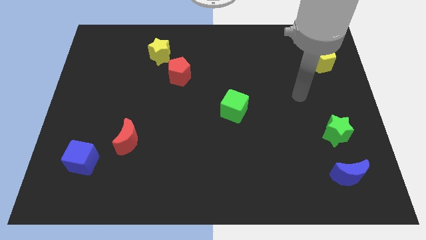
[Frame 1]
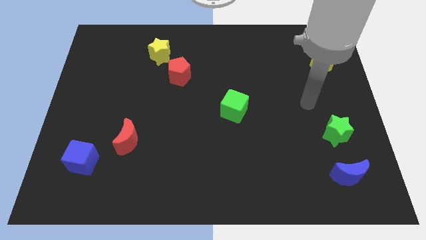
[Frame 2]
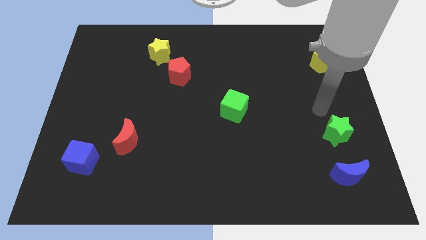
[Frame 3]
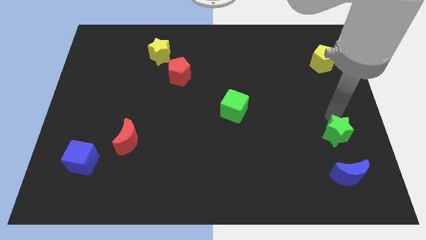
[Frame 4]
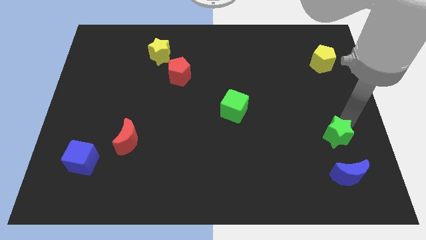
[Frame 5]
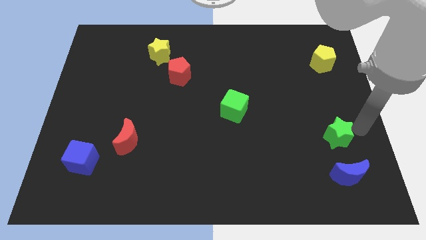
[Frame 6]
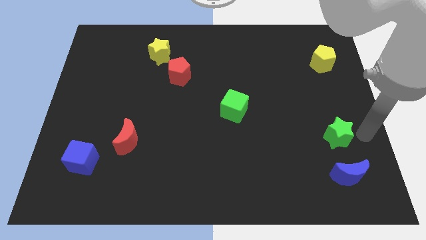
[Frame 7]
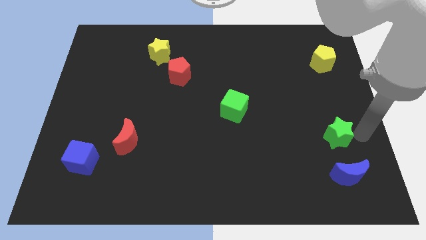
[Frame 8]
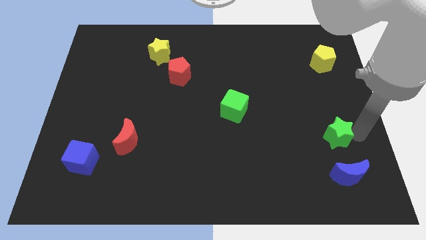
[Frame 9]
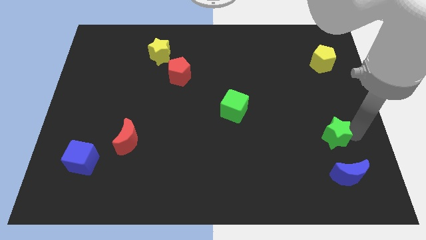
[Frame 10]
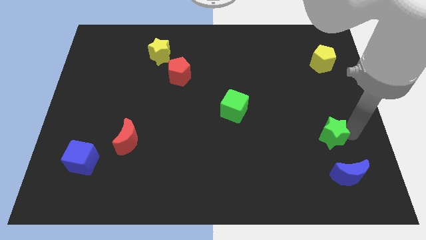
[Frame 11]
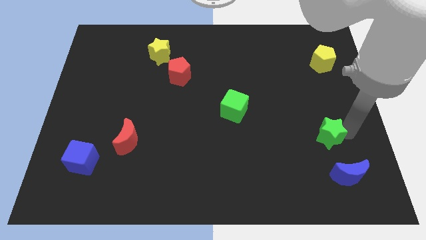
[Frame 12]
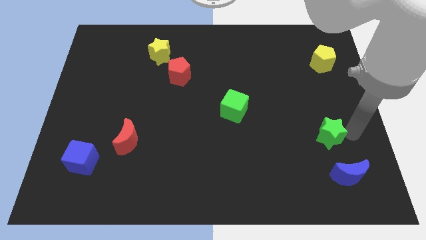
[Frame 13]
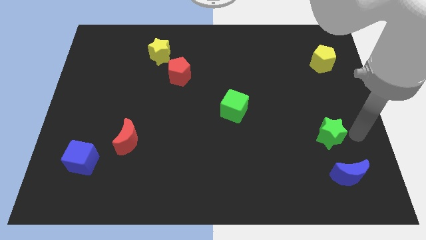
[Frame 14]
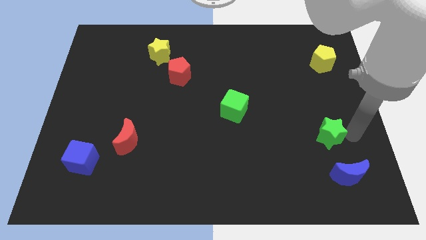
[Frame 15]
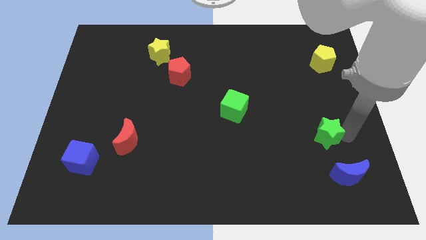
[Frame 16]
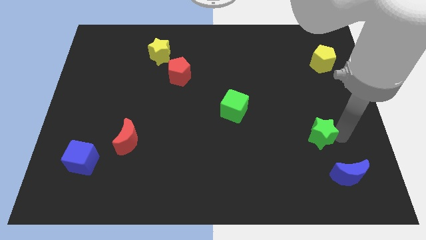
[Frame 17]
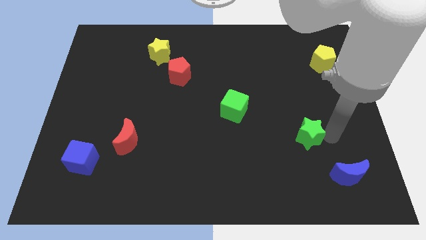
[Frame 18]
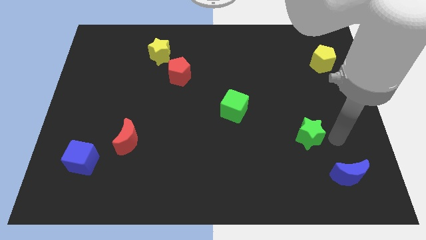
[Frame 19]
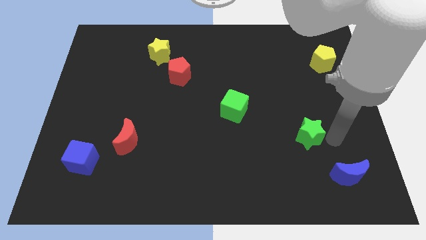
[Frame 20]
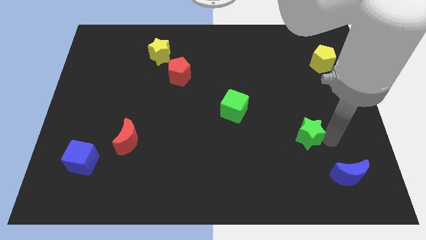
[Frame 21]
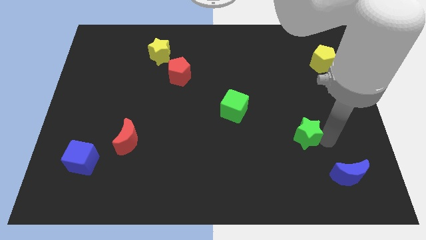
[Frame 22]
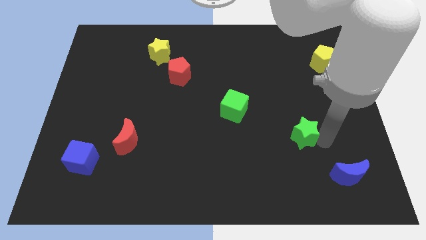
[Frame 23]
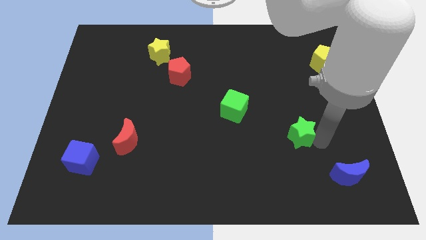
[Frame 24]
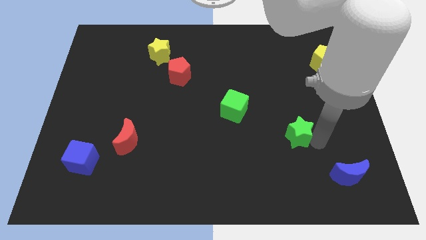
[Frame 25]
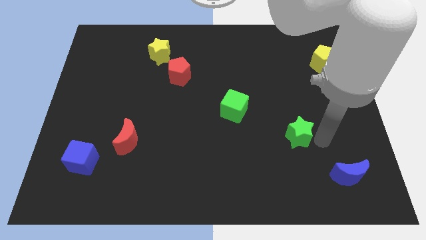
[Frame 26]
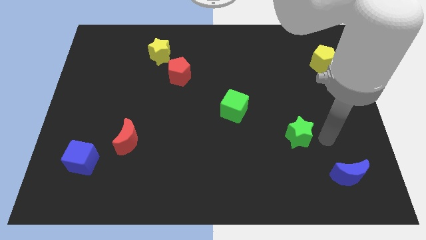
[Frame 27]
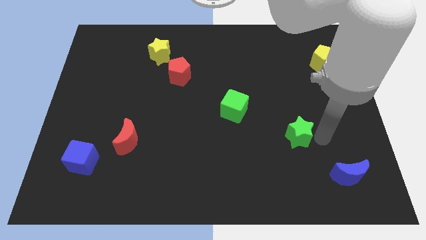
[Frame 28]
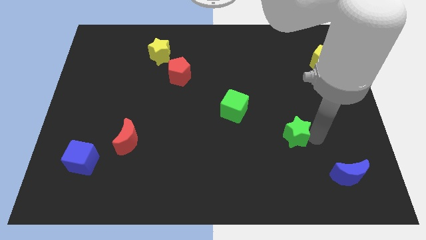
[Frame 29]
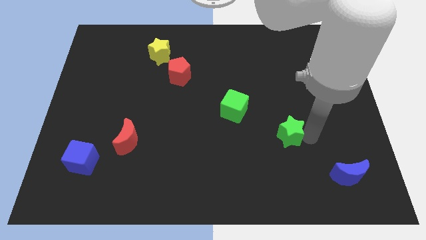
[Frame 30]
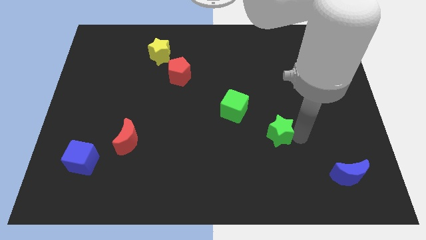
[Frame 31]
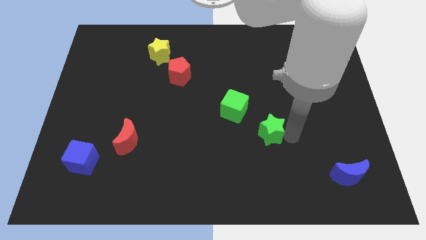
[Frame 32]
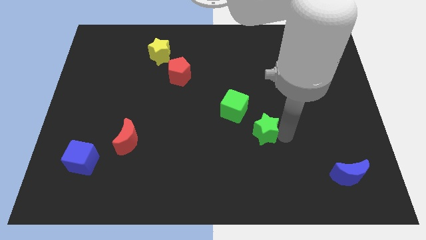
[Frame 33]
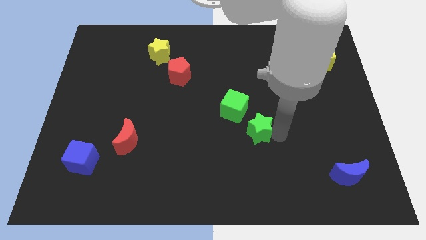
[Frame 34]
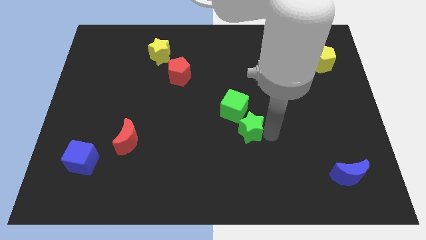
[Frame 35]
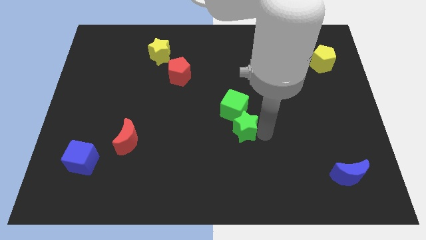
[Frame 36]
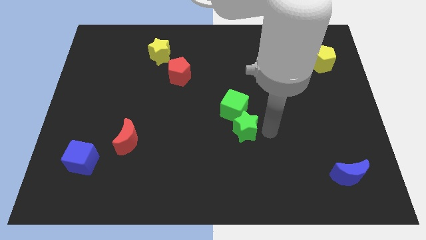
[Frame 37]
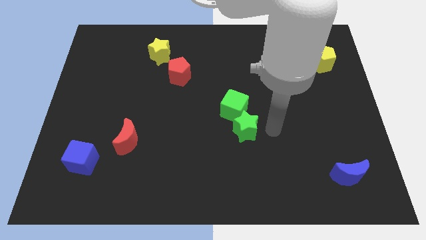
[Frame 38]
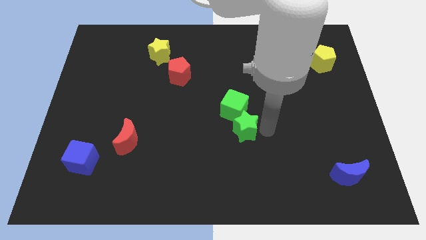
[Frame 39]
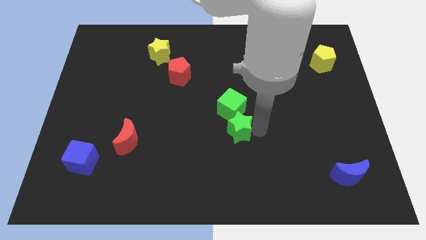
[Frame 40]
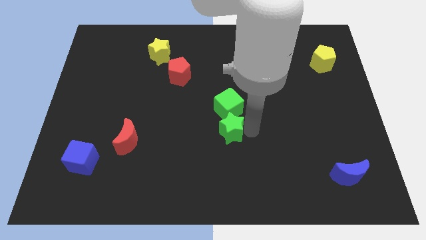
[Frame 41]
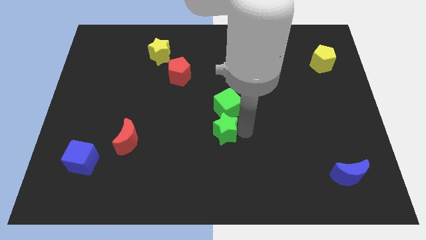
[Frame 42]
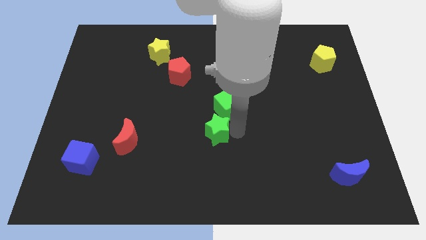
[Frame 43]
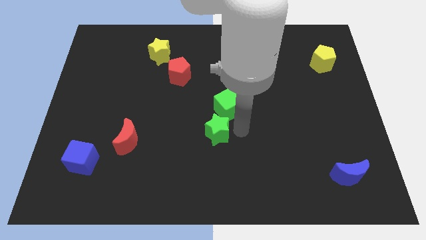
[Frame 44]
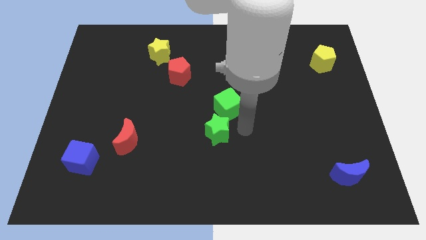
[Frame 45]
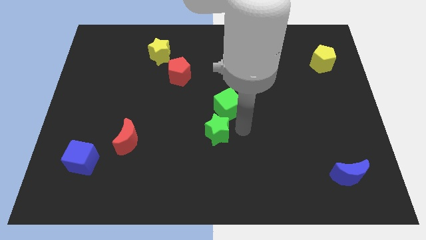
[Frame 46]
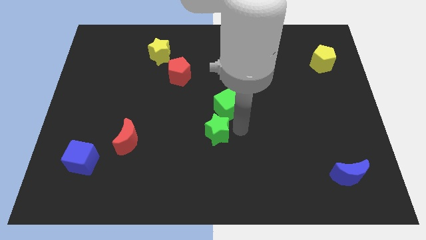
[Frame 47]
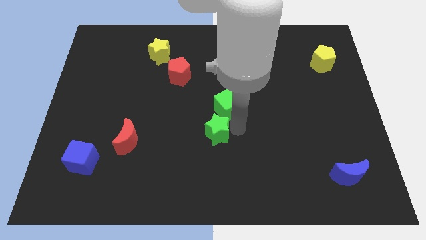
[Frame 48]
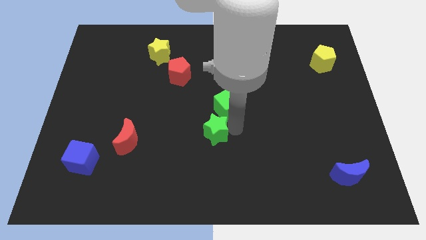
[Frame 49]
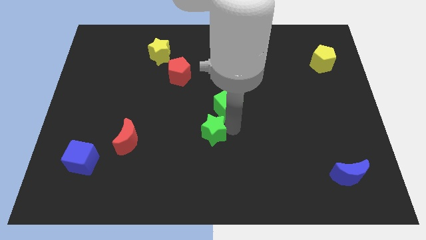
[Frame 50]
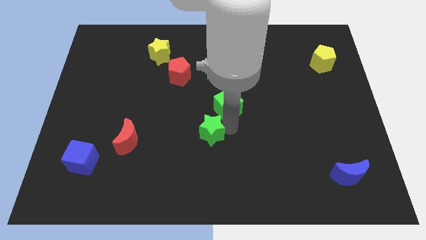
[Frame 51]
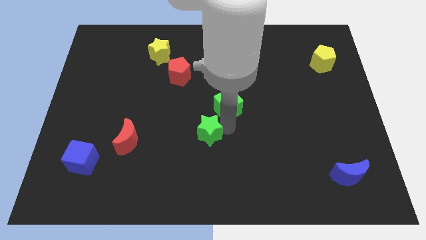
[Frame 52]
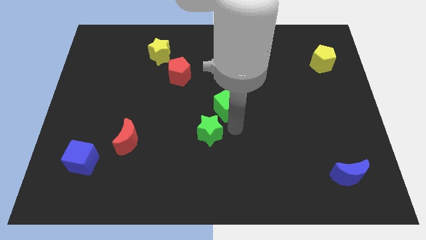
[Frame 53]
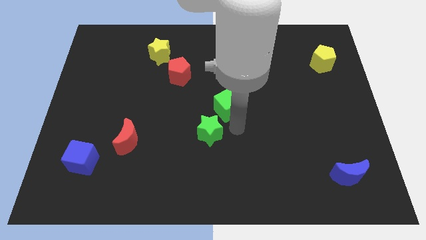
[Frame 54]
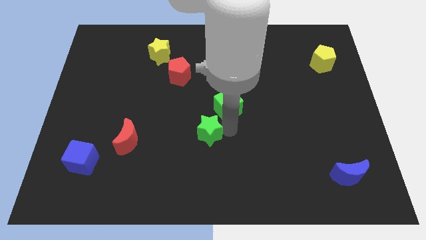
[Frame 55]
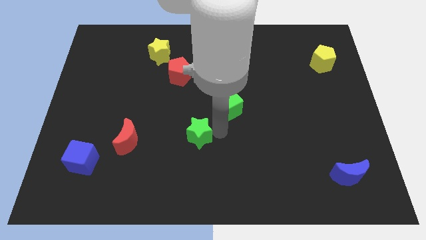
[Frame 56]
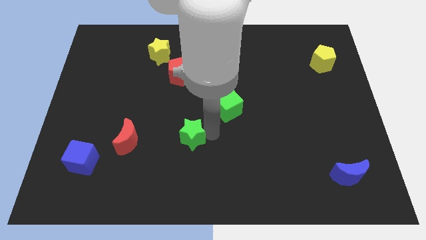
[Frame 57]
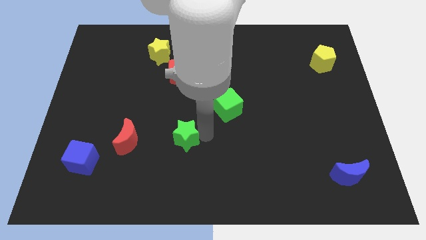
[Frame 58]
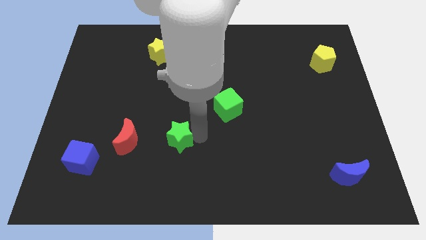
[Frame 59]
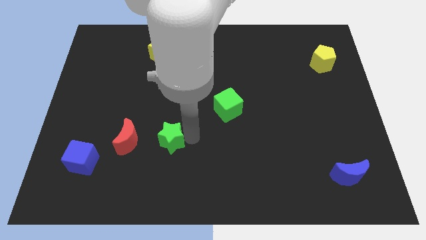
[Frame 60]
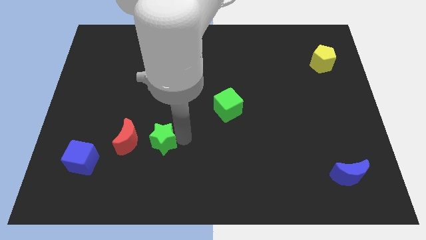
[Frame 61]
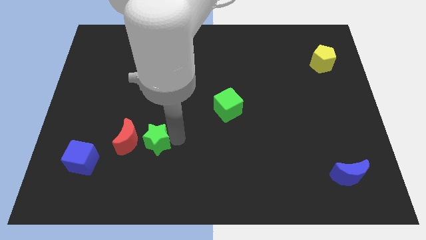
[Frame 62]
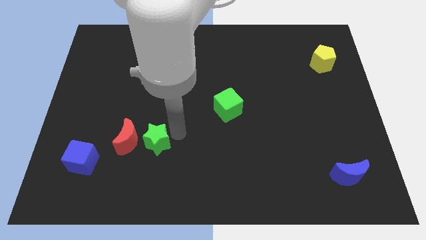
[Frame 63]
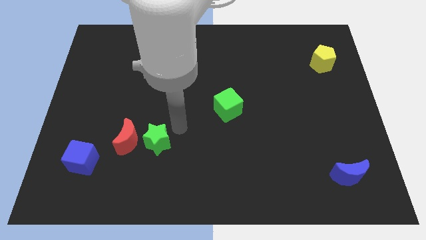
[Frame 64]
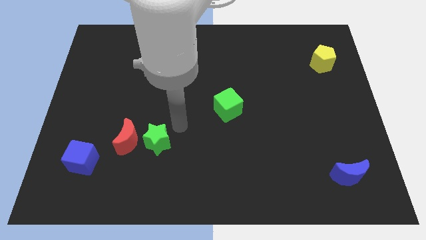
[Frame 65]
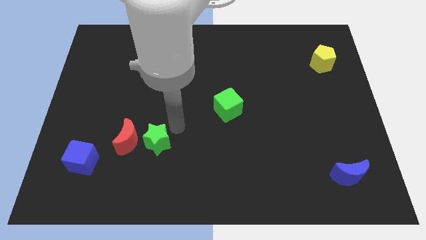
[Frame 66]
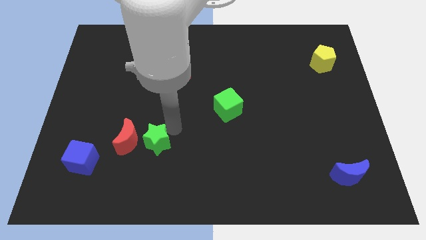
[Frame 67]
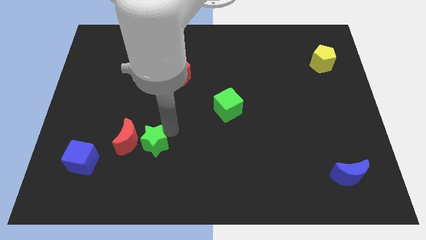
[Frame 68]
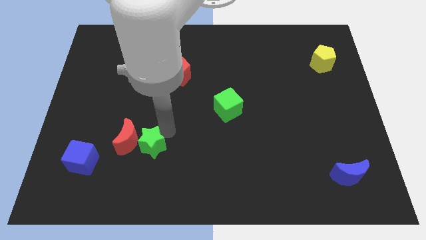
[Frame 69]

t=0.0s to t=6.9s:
push the green star just right of the blue cube

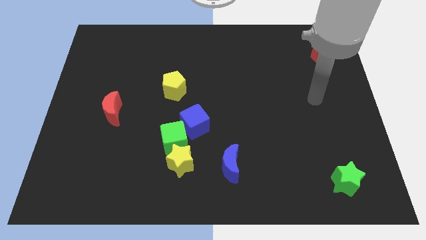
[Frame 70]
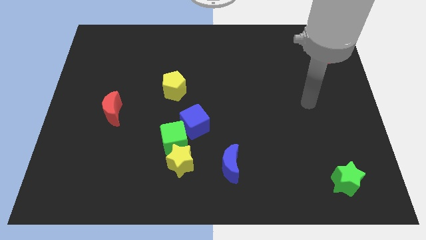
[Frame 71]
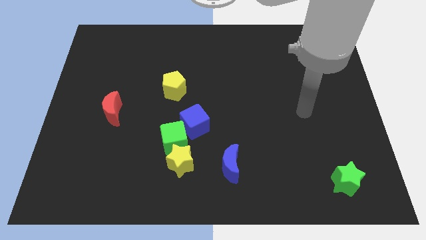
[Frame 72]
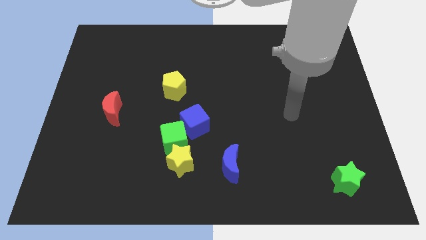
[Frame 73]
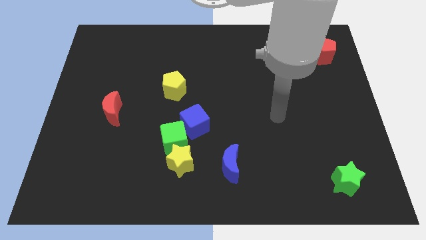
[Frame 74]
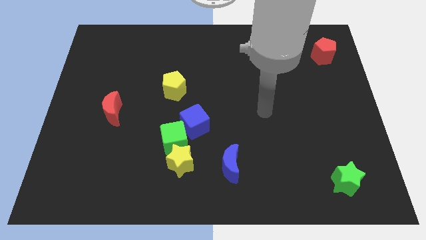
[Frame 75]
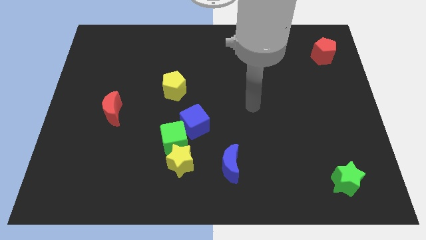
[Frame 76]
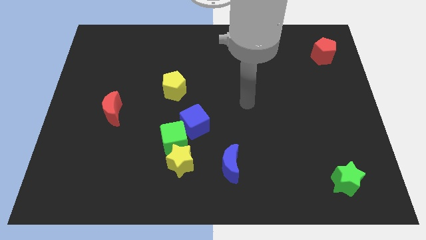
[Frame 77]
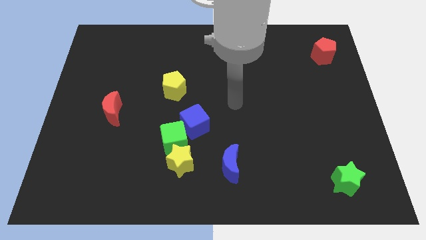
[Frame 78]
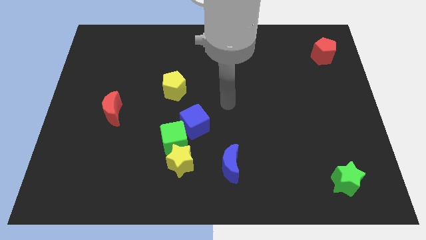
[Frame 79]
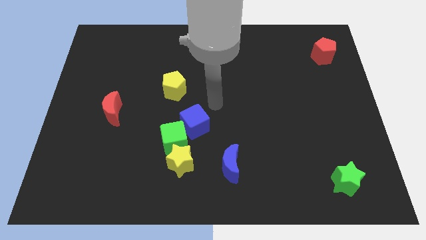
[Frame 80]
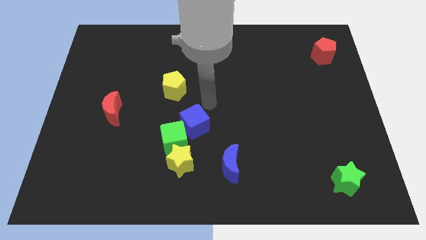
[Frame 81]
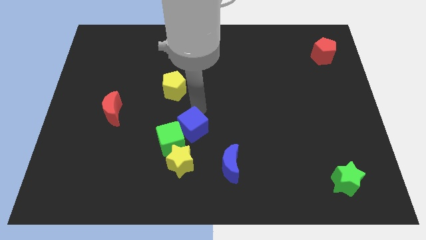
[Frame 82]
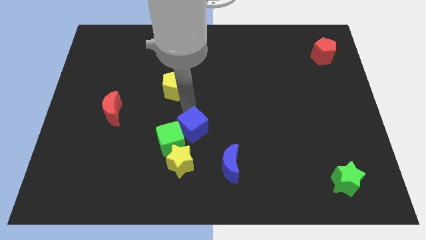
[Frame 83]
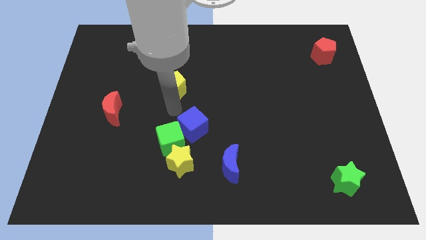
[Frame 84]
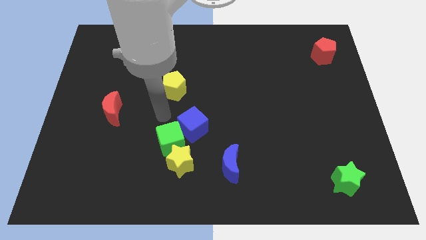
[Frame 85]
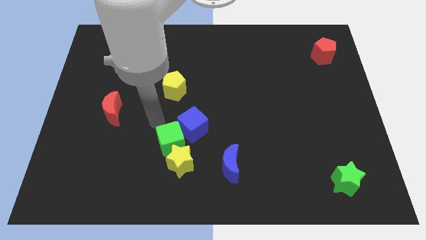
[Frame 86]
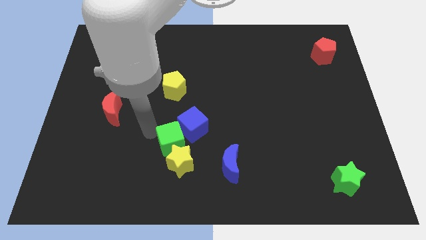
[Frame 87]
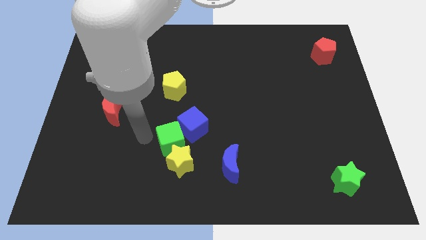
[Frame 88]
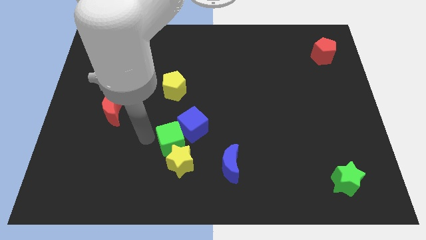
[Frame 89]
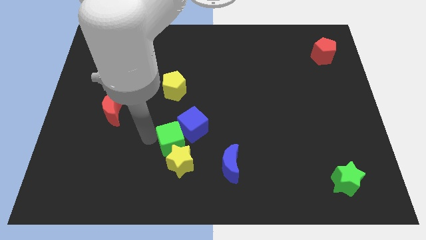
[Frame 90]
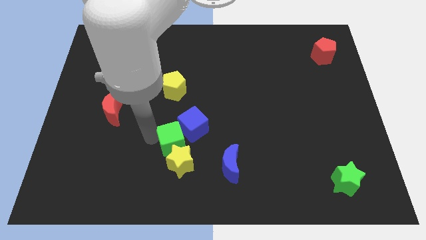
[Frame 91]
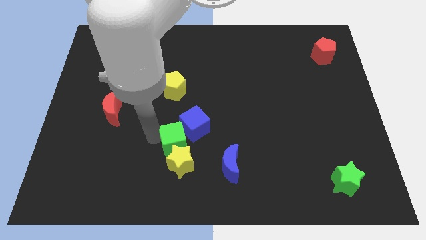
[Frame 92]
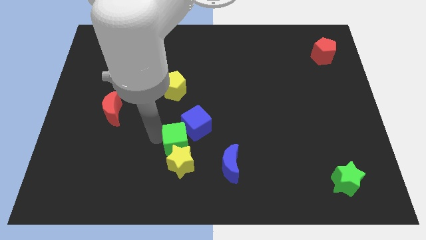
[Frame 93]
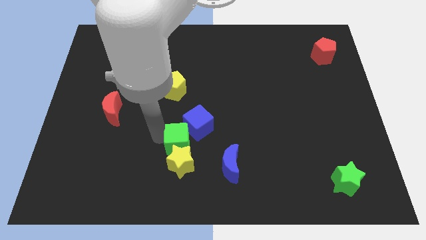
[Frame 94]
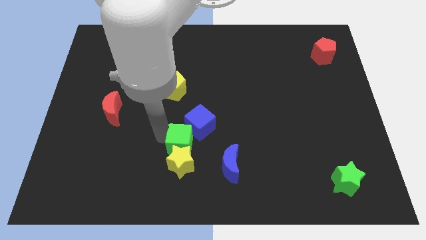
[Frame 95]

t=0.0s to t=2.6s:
put the green cube diagonally up and to the left of the blue moon
